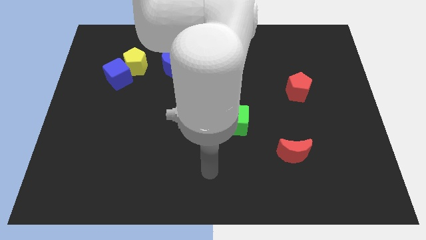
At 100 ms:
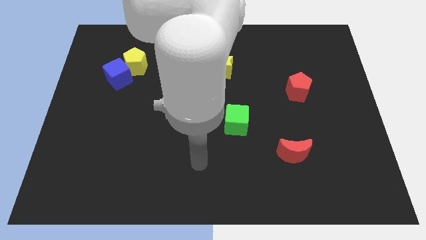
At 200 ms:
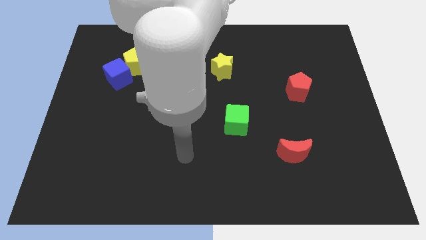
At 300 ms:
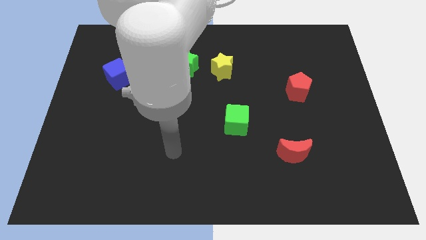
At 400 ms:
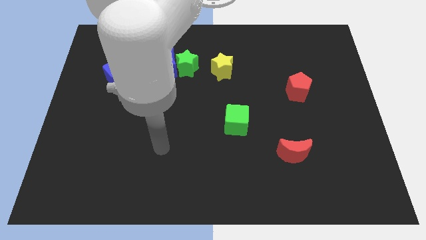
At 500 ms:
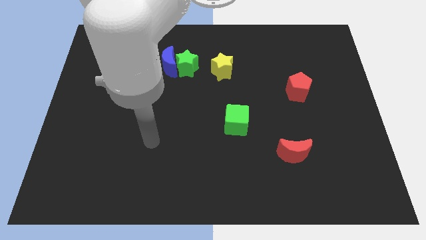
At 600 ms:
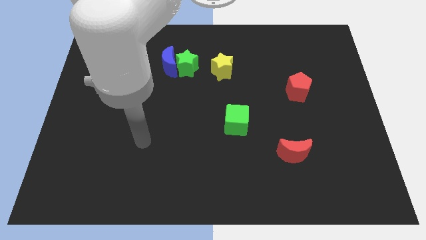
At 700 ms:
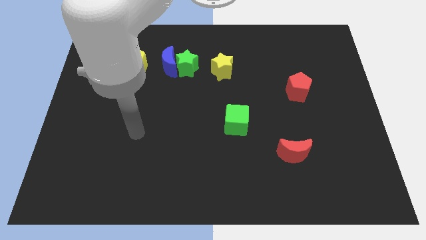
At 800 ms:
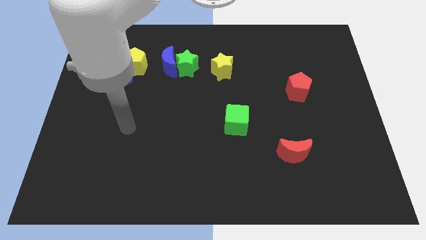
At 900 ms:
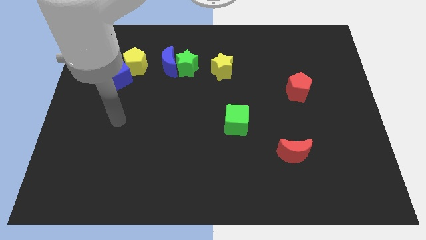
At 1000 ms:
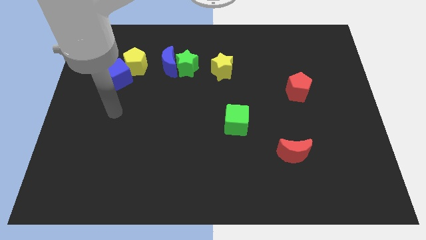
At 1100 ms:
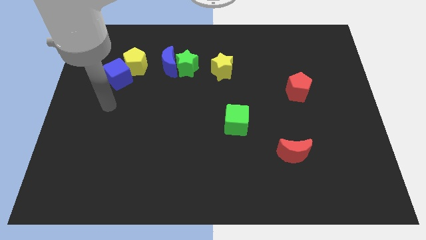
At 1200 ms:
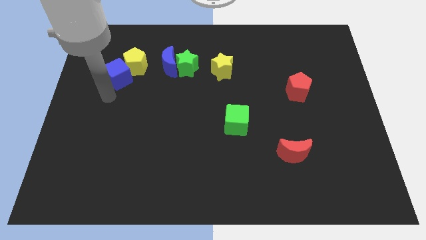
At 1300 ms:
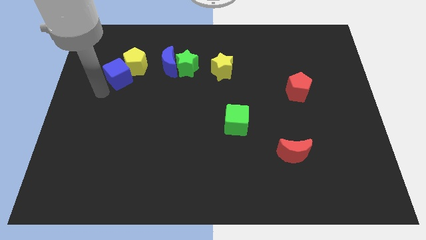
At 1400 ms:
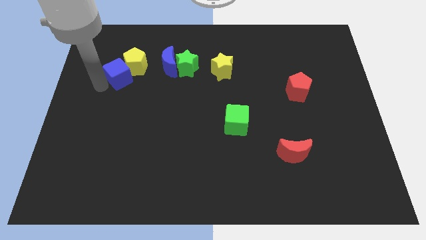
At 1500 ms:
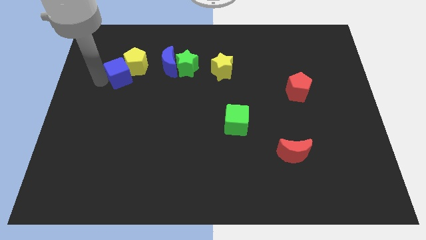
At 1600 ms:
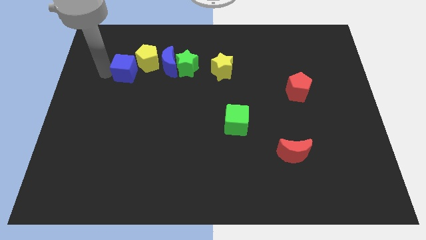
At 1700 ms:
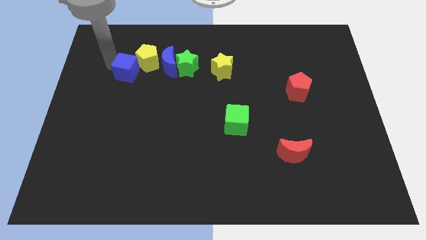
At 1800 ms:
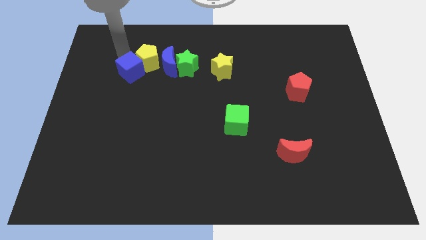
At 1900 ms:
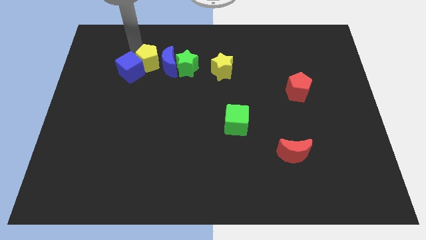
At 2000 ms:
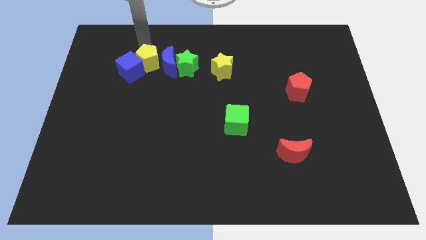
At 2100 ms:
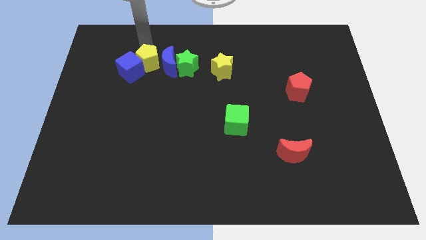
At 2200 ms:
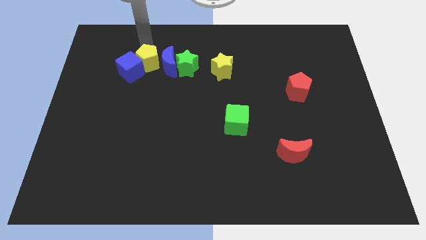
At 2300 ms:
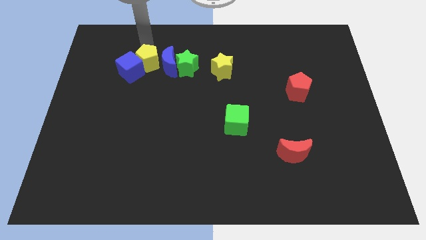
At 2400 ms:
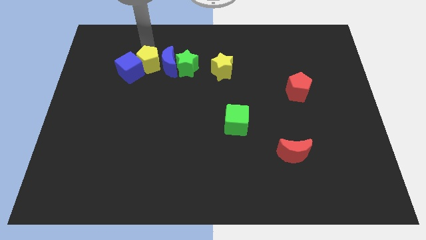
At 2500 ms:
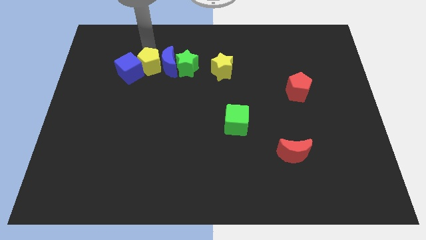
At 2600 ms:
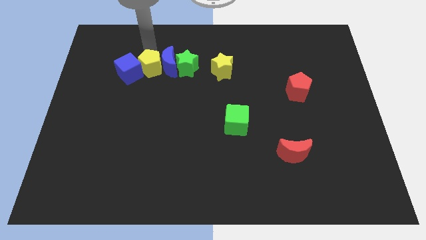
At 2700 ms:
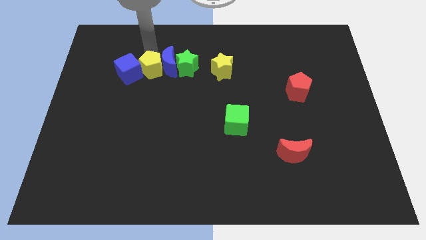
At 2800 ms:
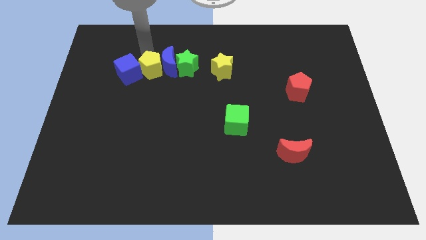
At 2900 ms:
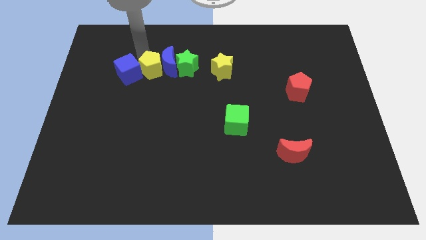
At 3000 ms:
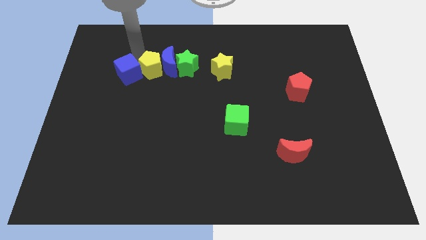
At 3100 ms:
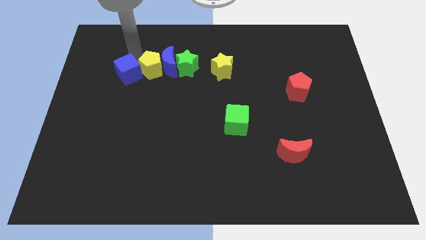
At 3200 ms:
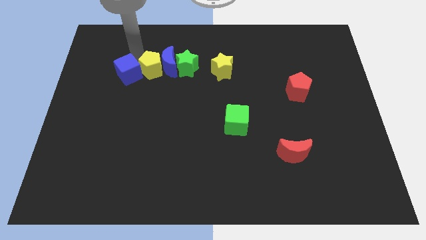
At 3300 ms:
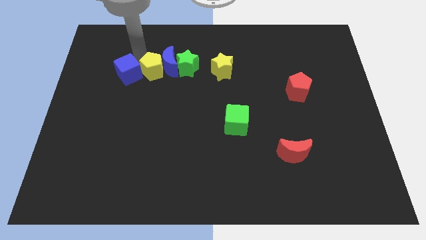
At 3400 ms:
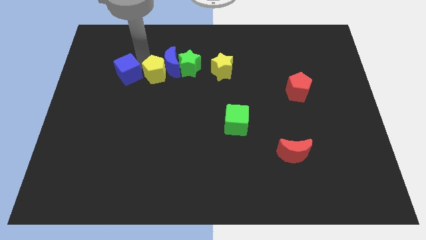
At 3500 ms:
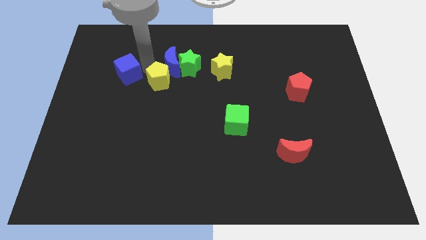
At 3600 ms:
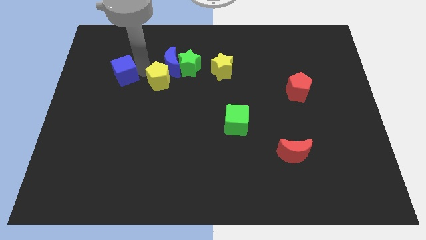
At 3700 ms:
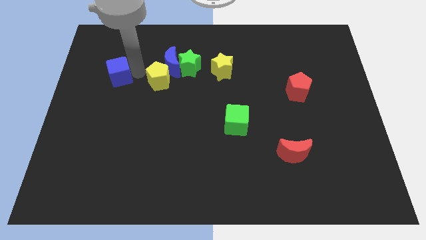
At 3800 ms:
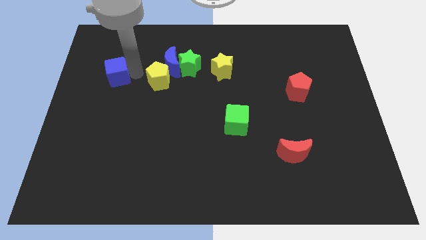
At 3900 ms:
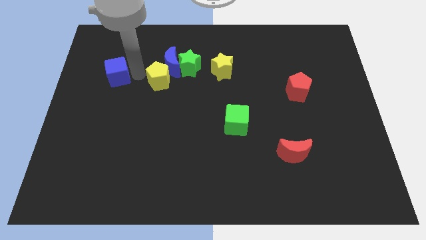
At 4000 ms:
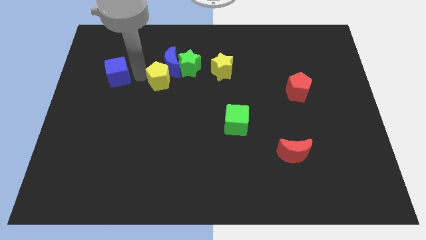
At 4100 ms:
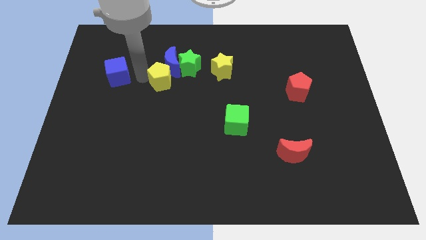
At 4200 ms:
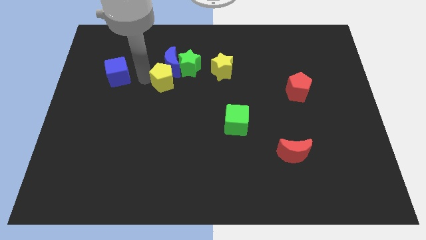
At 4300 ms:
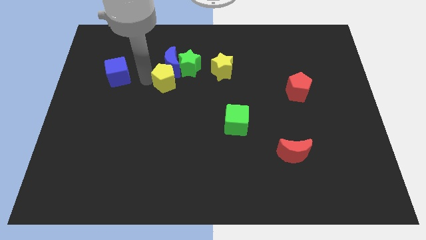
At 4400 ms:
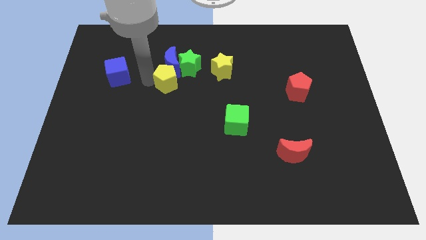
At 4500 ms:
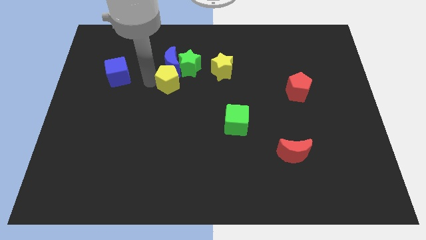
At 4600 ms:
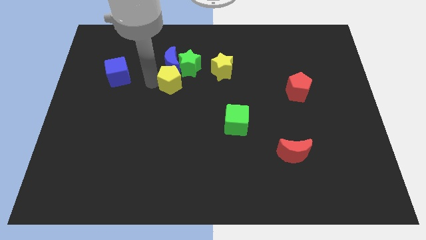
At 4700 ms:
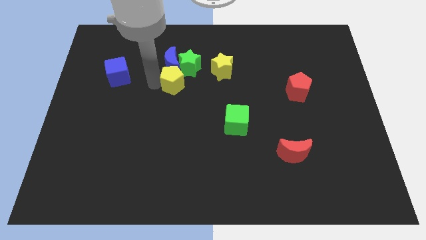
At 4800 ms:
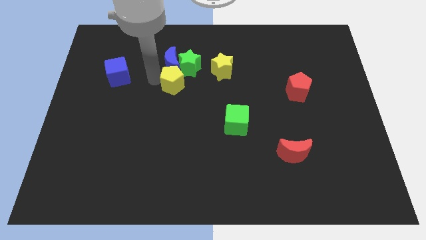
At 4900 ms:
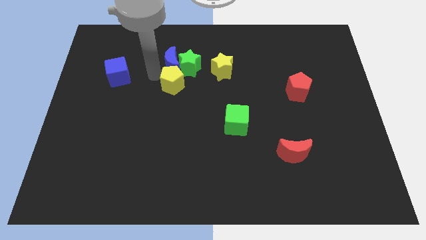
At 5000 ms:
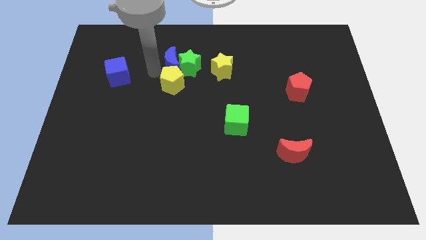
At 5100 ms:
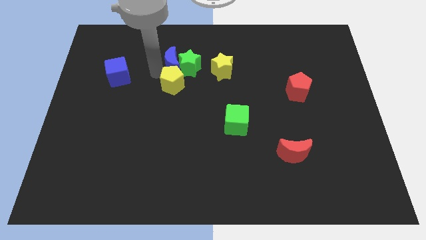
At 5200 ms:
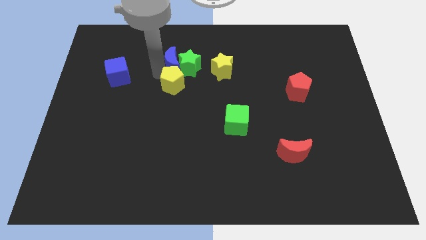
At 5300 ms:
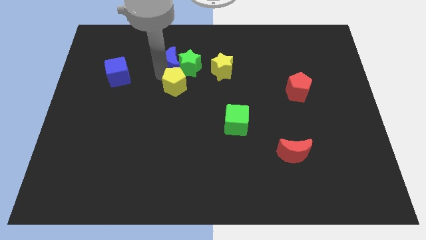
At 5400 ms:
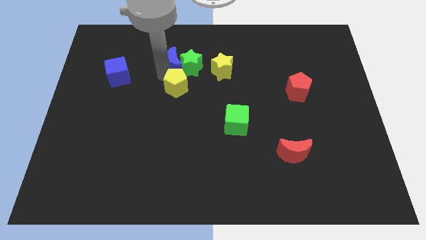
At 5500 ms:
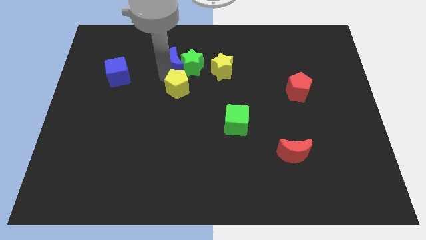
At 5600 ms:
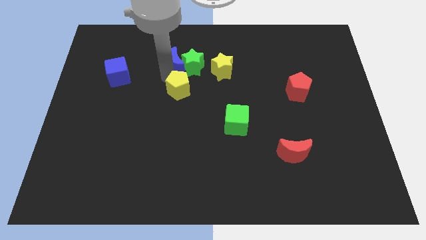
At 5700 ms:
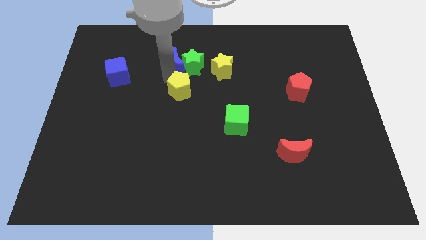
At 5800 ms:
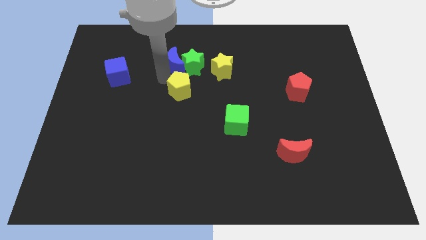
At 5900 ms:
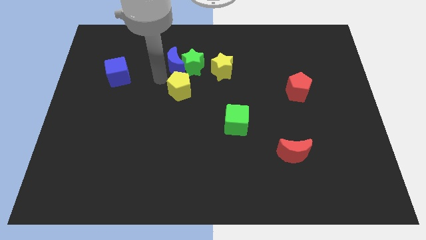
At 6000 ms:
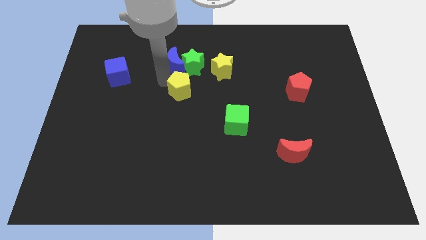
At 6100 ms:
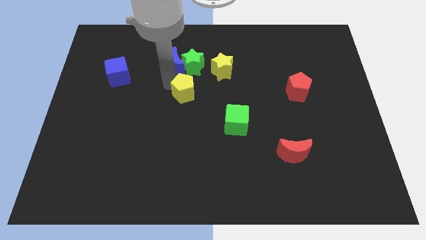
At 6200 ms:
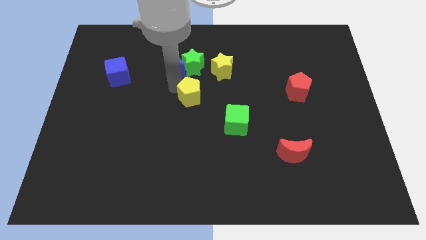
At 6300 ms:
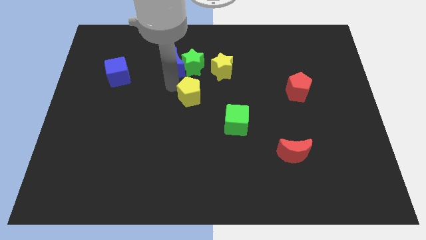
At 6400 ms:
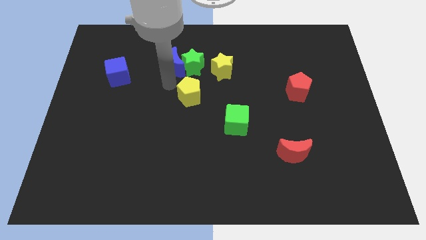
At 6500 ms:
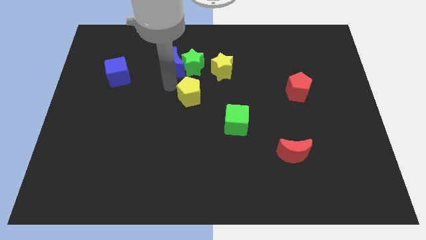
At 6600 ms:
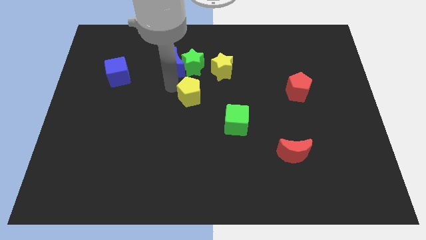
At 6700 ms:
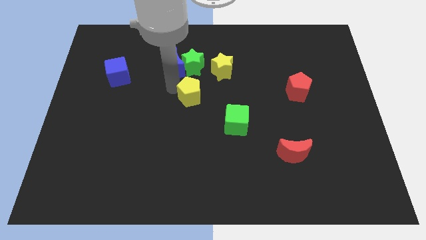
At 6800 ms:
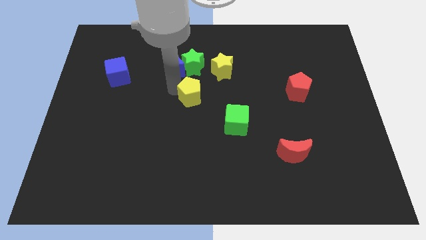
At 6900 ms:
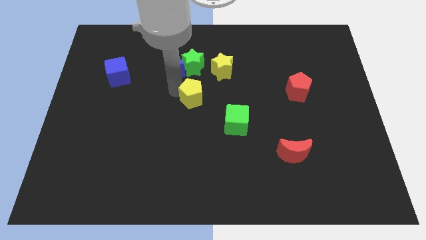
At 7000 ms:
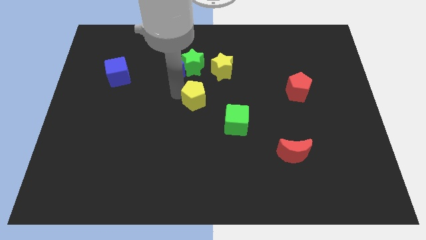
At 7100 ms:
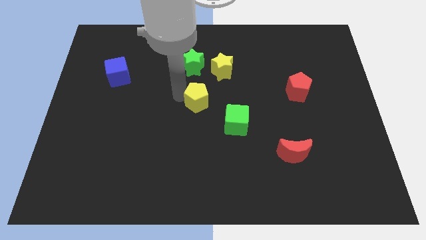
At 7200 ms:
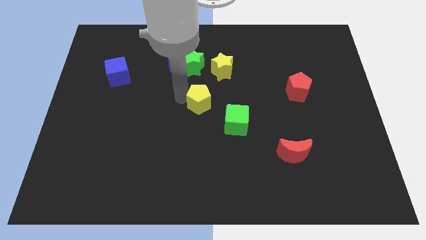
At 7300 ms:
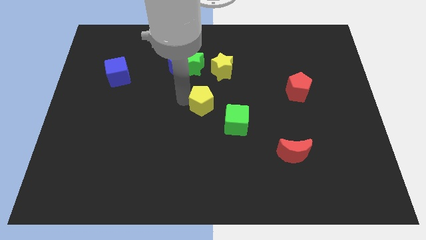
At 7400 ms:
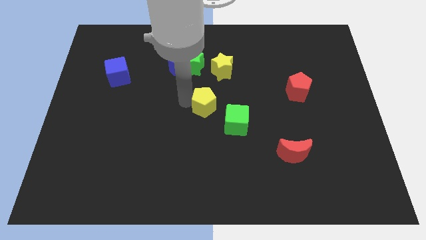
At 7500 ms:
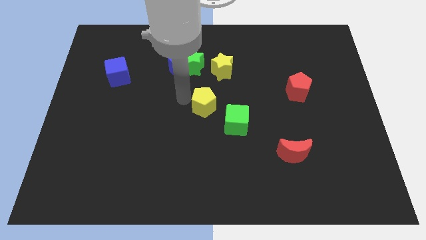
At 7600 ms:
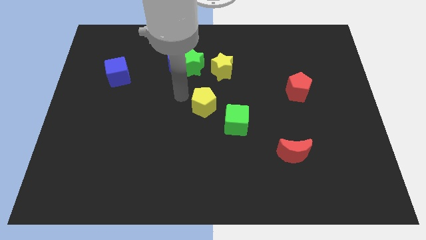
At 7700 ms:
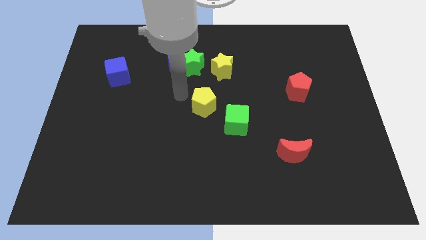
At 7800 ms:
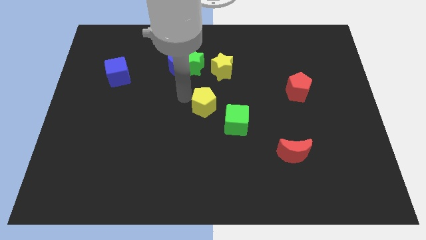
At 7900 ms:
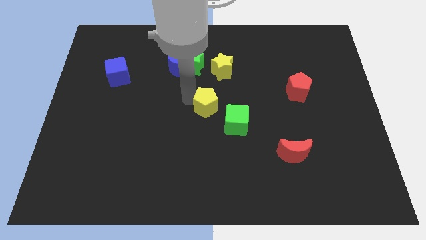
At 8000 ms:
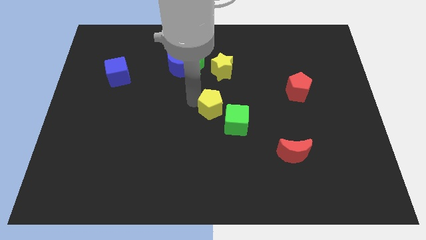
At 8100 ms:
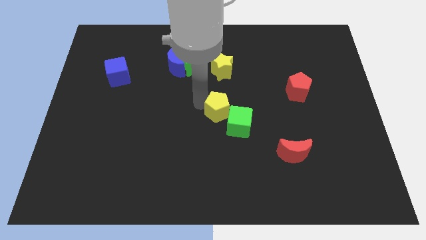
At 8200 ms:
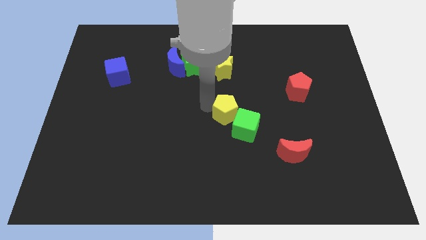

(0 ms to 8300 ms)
move the yellow pentagon close to the green cube
